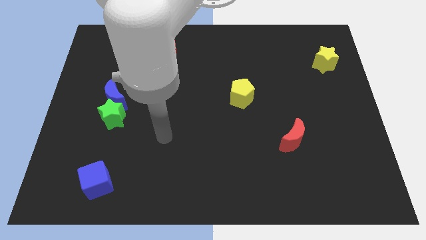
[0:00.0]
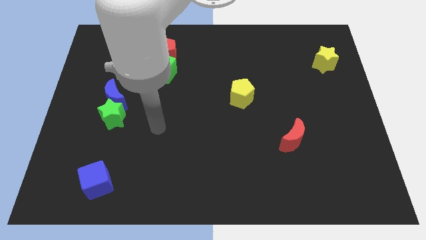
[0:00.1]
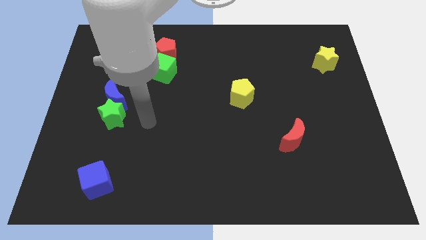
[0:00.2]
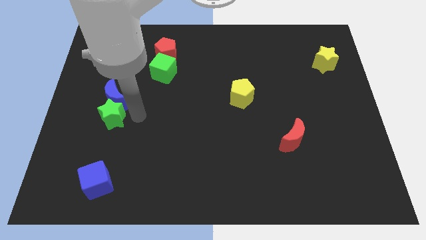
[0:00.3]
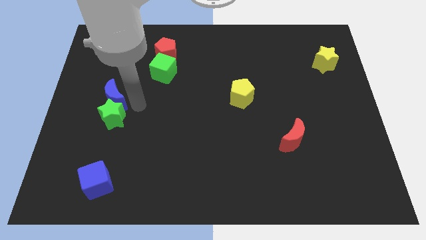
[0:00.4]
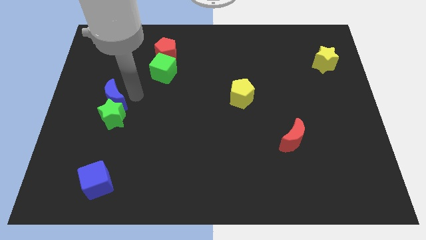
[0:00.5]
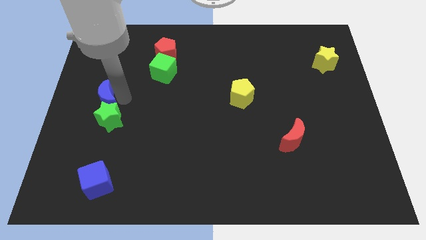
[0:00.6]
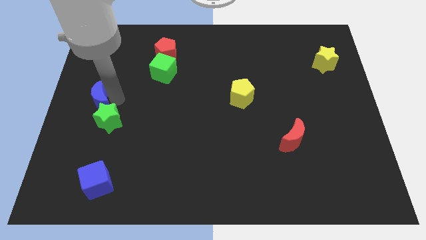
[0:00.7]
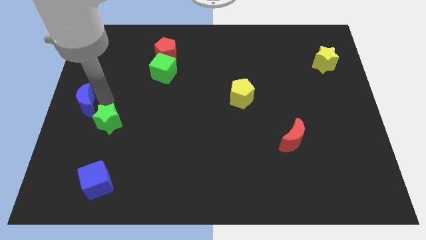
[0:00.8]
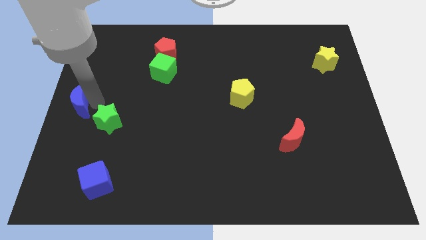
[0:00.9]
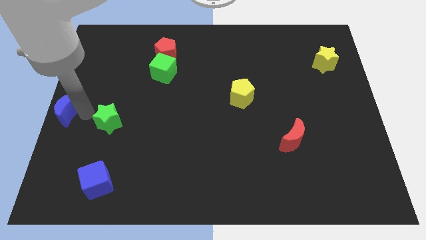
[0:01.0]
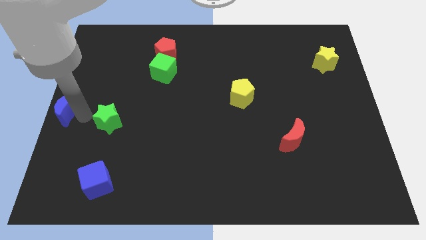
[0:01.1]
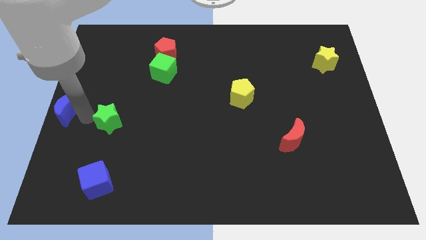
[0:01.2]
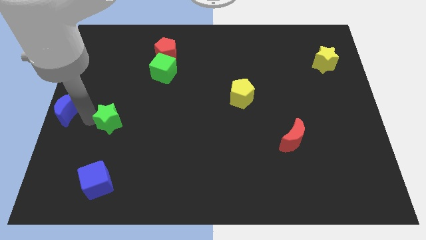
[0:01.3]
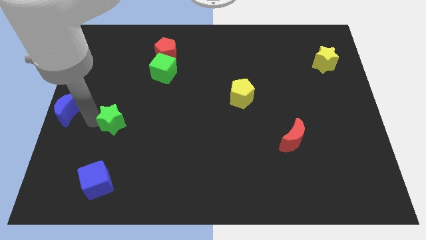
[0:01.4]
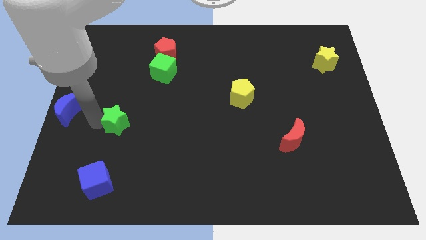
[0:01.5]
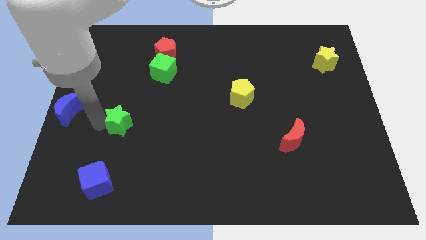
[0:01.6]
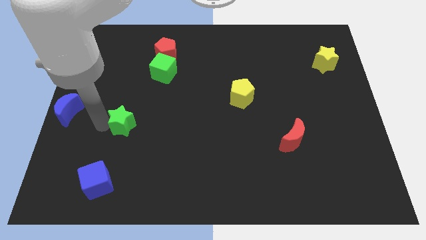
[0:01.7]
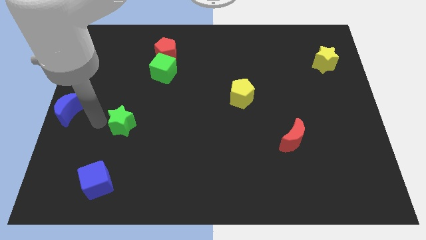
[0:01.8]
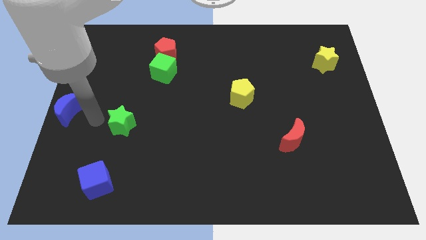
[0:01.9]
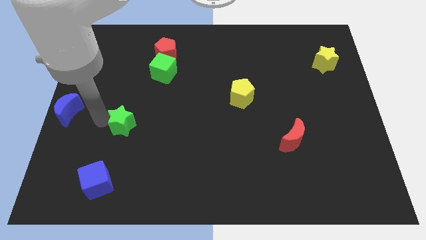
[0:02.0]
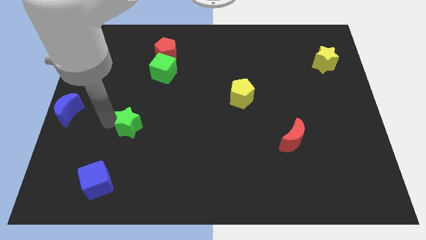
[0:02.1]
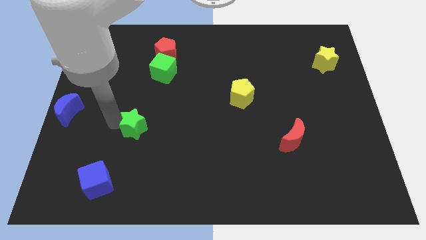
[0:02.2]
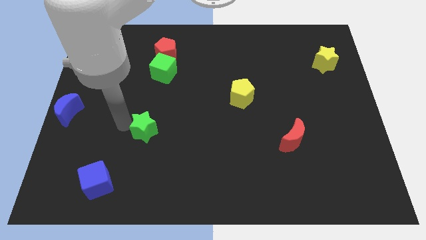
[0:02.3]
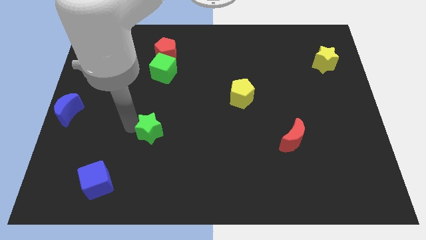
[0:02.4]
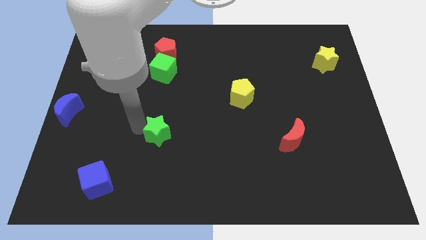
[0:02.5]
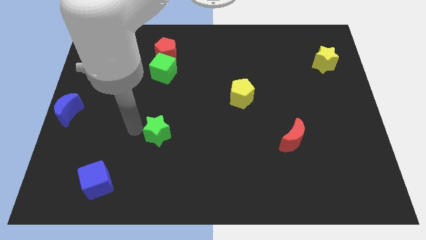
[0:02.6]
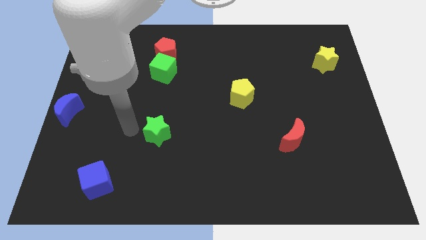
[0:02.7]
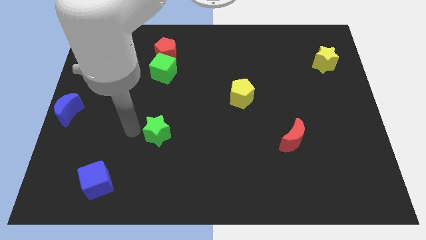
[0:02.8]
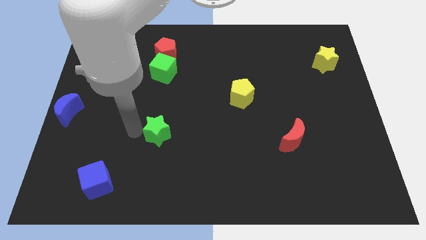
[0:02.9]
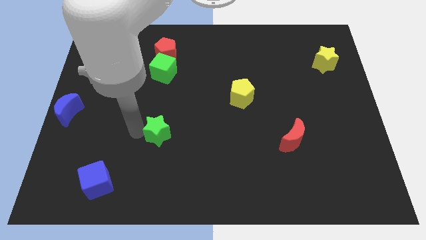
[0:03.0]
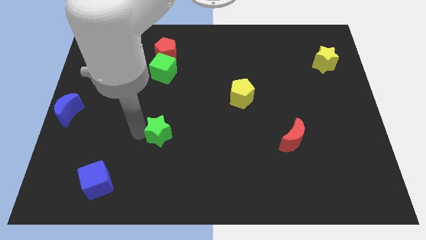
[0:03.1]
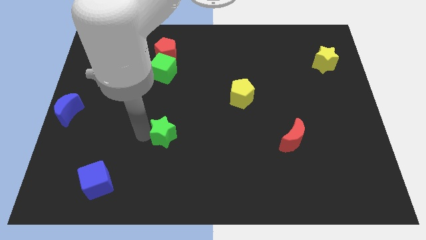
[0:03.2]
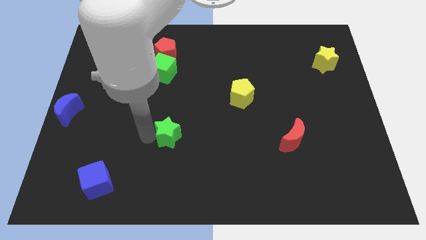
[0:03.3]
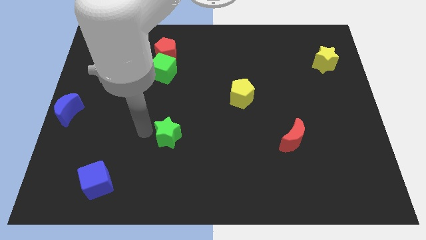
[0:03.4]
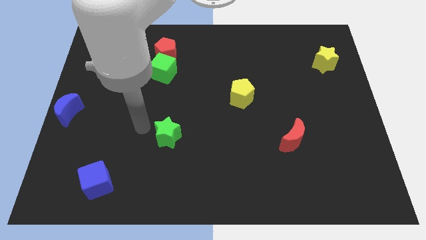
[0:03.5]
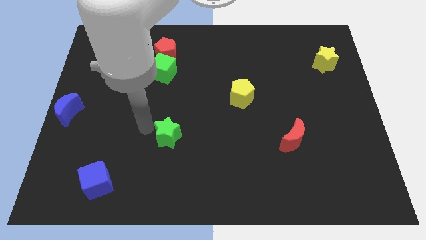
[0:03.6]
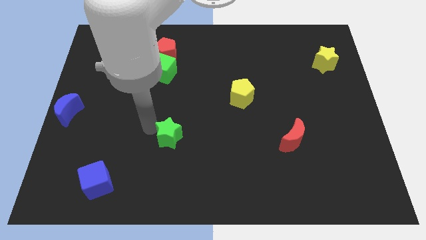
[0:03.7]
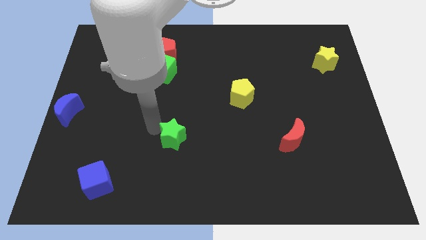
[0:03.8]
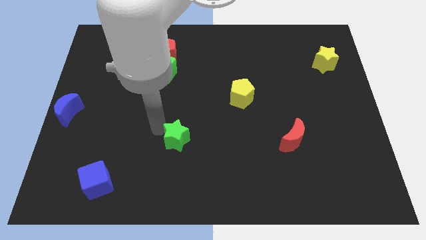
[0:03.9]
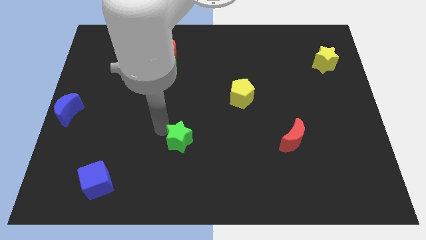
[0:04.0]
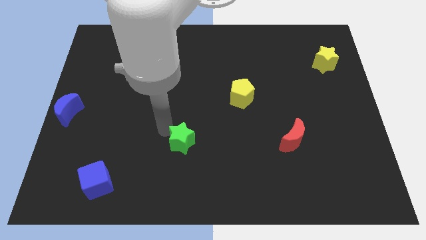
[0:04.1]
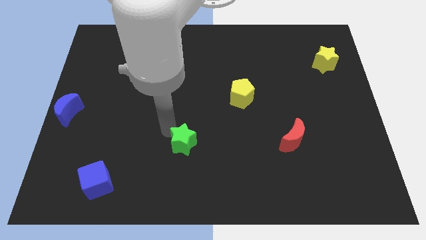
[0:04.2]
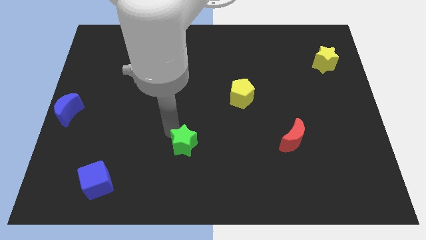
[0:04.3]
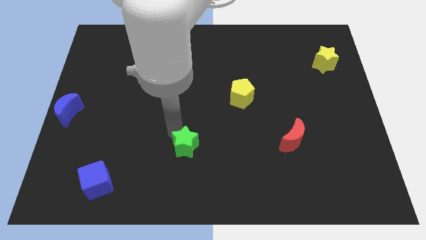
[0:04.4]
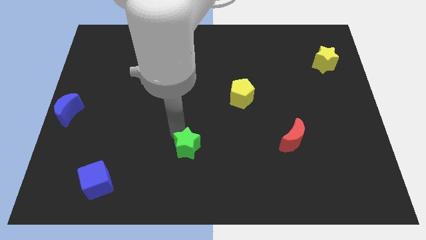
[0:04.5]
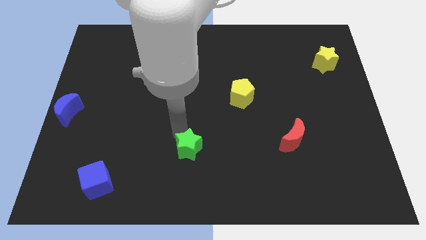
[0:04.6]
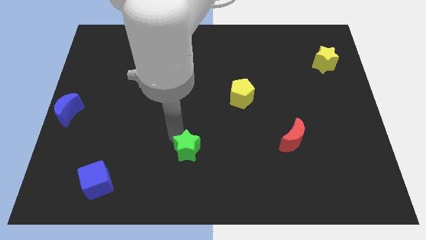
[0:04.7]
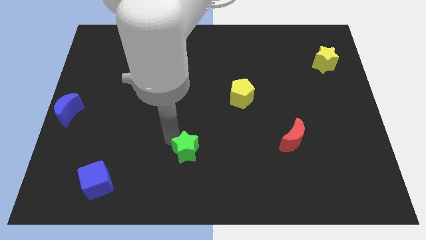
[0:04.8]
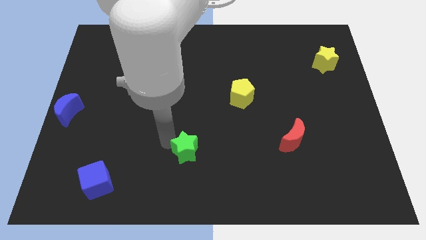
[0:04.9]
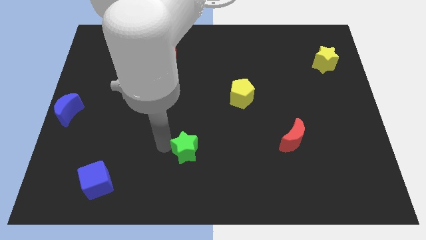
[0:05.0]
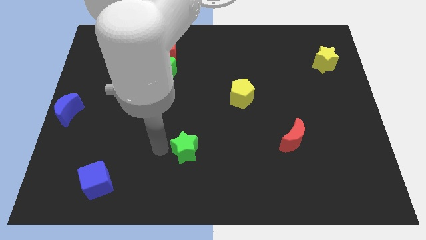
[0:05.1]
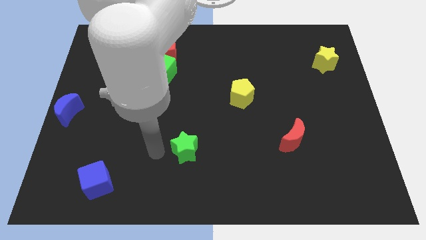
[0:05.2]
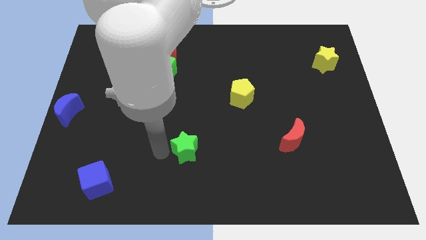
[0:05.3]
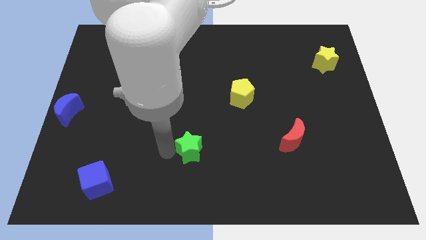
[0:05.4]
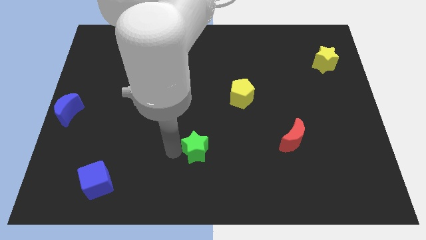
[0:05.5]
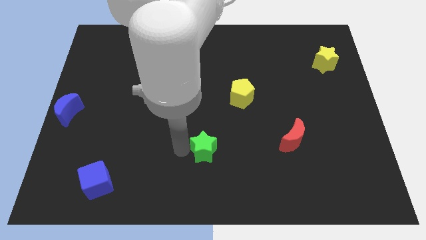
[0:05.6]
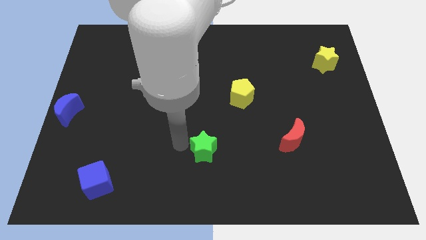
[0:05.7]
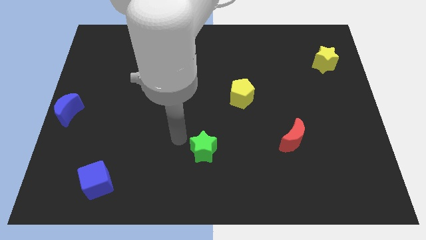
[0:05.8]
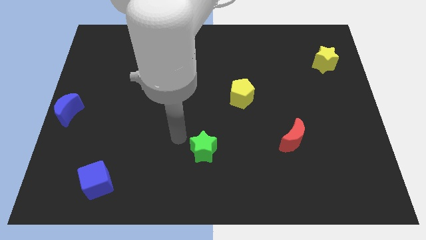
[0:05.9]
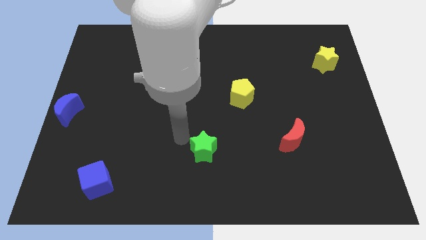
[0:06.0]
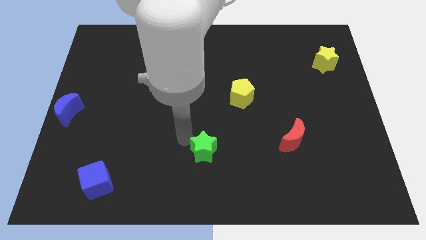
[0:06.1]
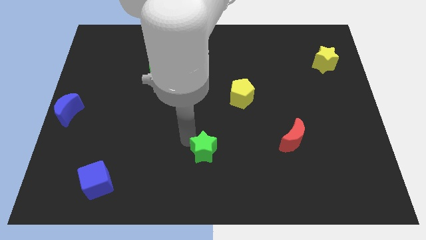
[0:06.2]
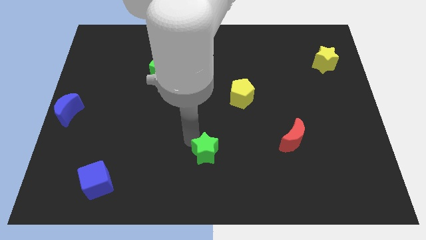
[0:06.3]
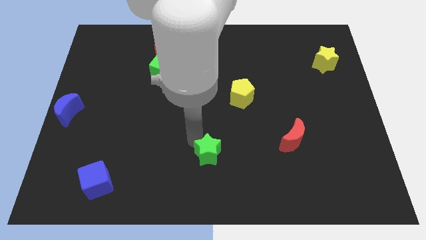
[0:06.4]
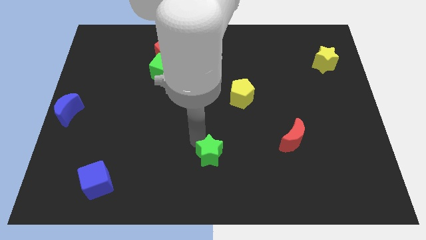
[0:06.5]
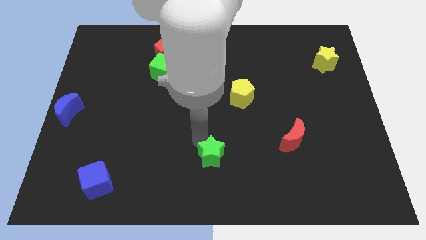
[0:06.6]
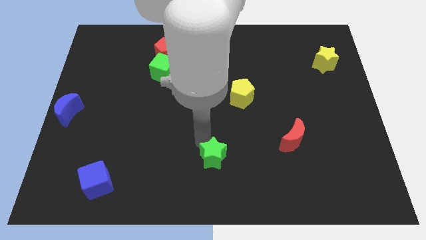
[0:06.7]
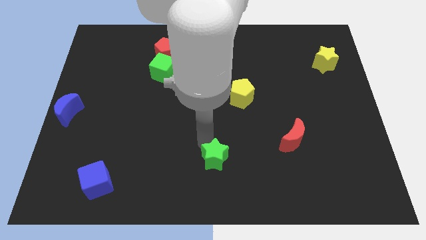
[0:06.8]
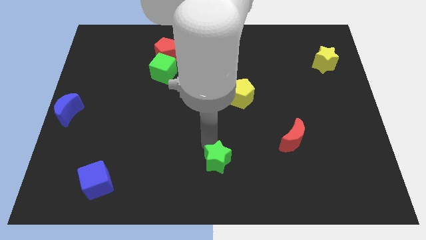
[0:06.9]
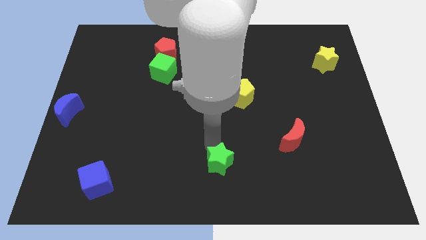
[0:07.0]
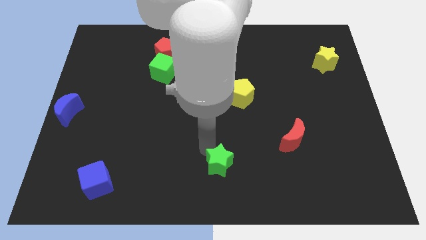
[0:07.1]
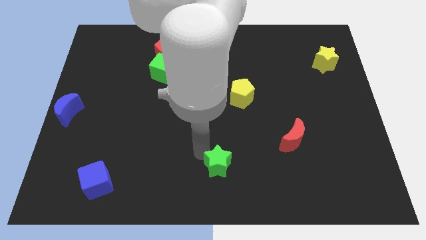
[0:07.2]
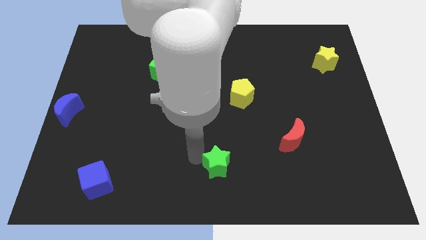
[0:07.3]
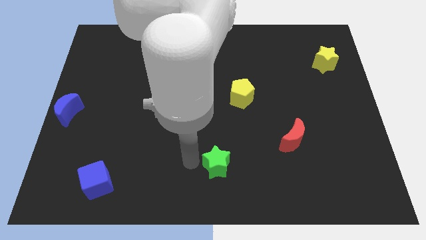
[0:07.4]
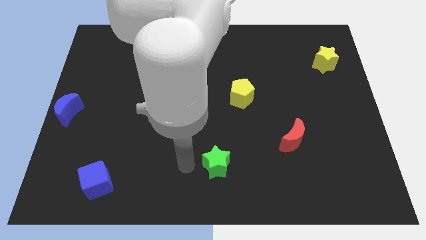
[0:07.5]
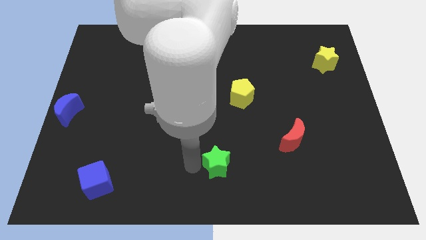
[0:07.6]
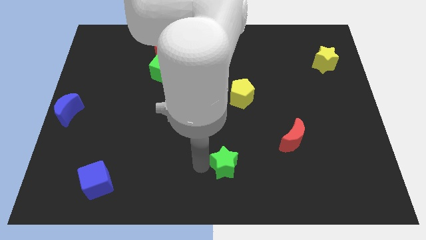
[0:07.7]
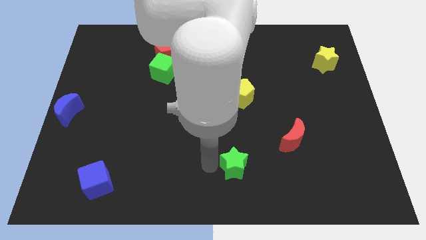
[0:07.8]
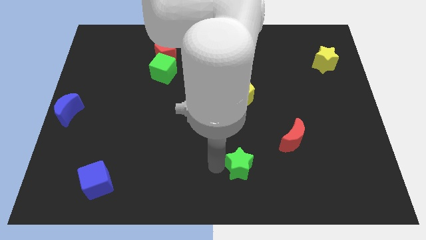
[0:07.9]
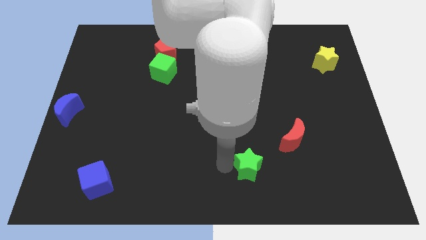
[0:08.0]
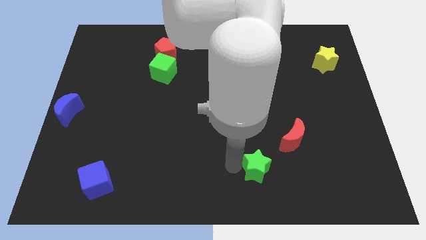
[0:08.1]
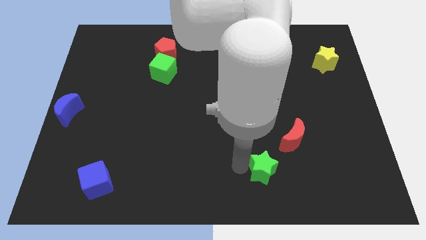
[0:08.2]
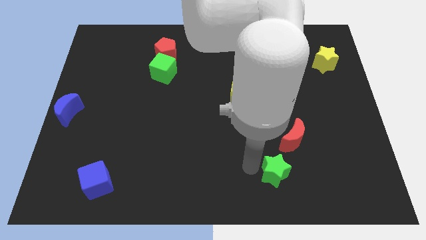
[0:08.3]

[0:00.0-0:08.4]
slide the green star to the bottom side of the red moon
